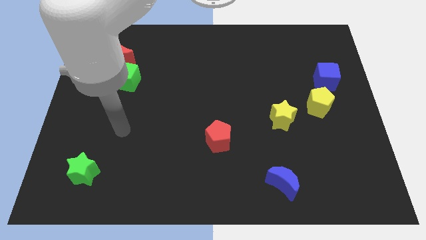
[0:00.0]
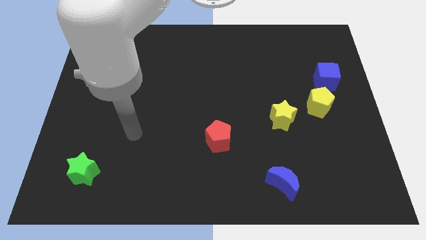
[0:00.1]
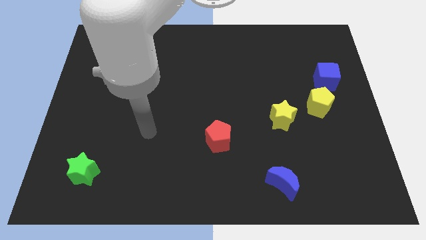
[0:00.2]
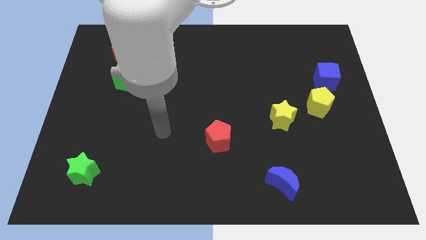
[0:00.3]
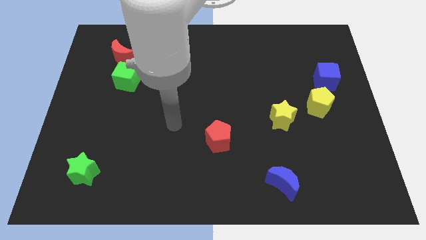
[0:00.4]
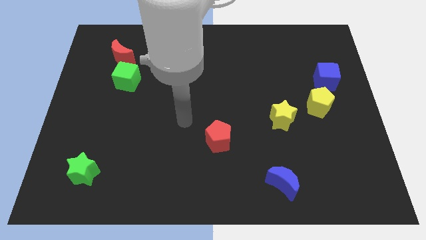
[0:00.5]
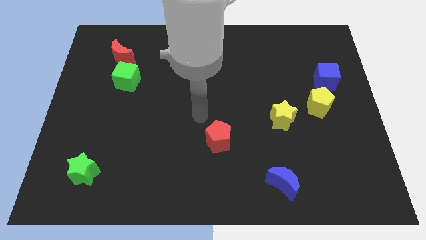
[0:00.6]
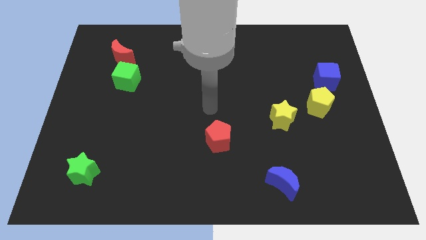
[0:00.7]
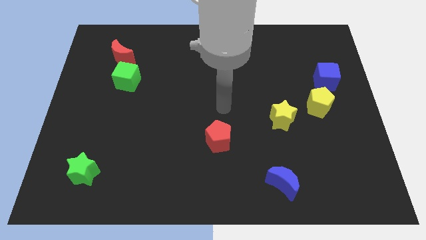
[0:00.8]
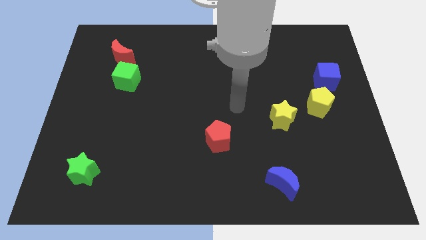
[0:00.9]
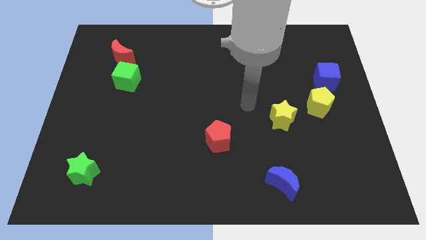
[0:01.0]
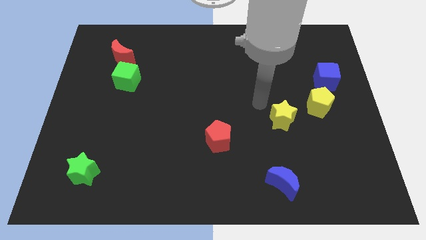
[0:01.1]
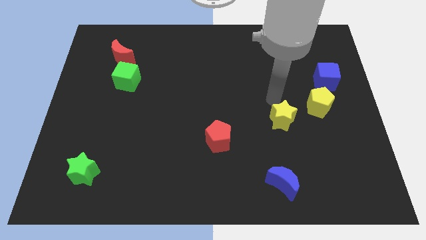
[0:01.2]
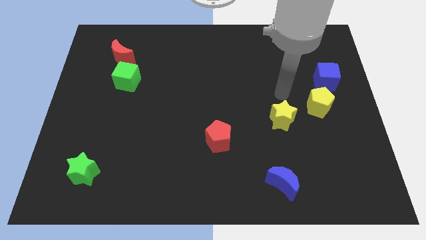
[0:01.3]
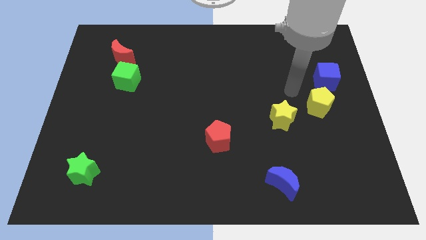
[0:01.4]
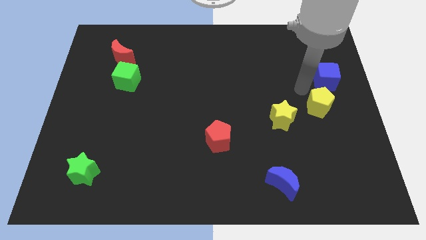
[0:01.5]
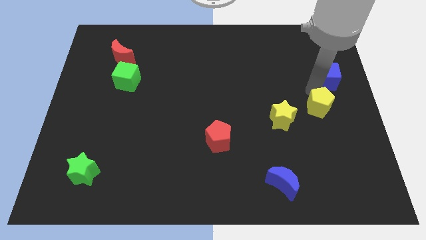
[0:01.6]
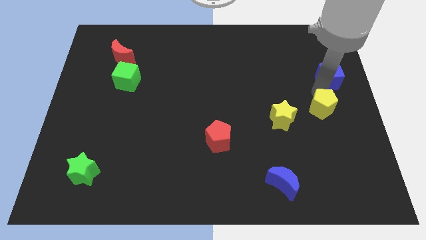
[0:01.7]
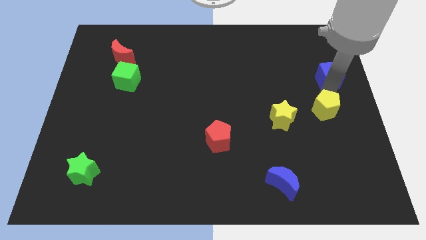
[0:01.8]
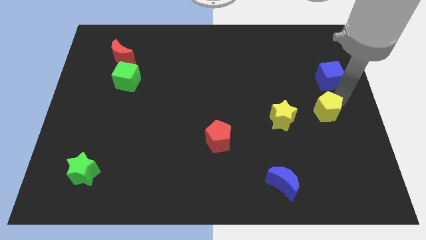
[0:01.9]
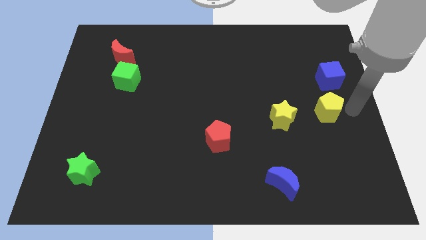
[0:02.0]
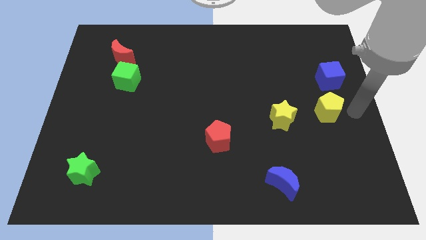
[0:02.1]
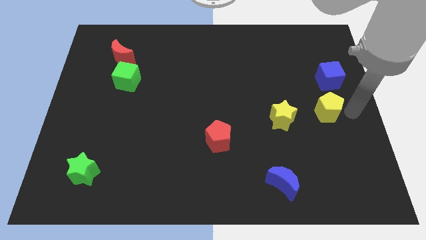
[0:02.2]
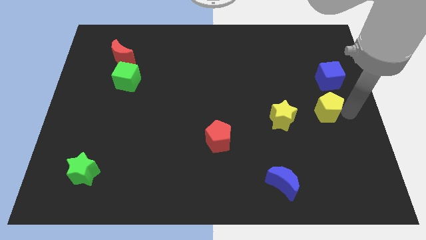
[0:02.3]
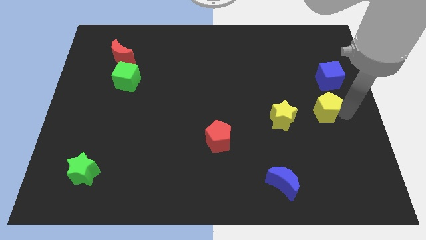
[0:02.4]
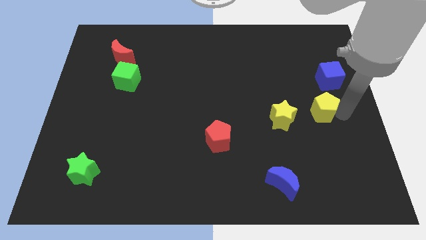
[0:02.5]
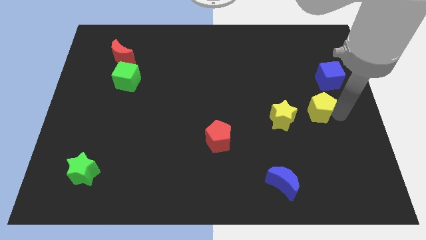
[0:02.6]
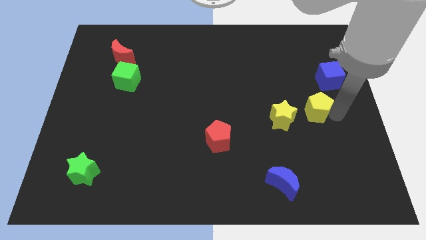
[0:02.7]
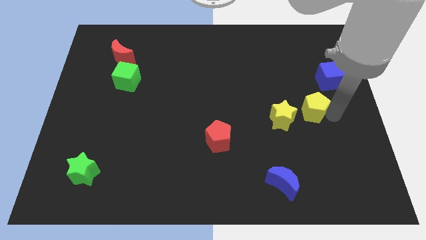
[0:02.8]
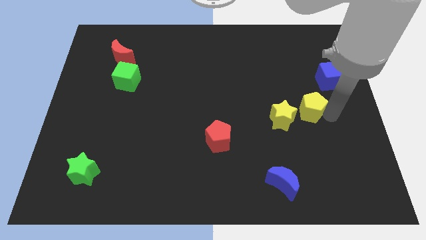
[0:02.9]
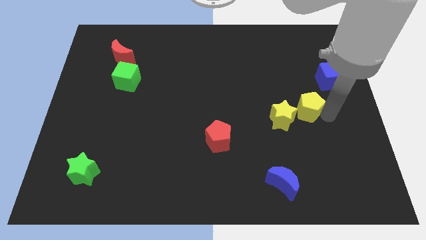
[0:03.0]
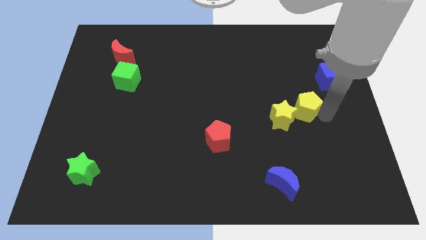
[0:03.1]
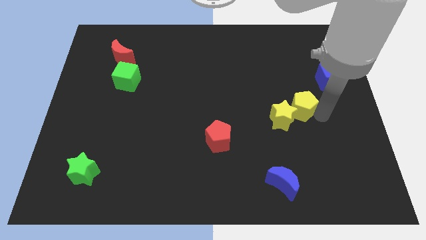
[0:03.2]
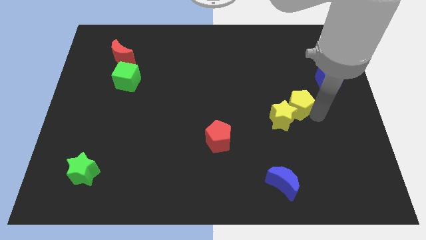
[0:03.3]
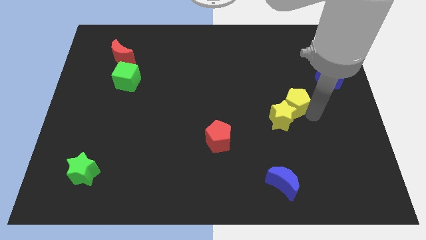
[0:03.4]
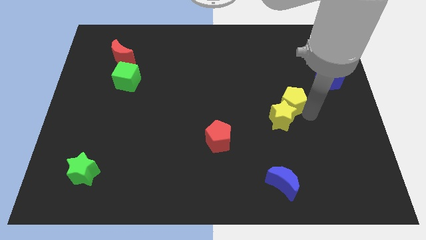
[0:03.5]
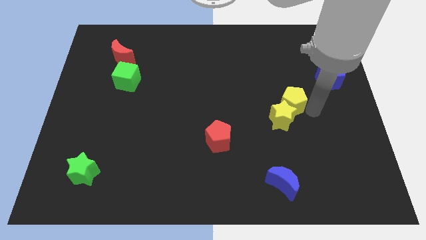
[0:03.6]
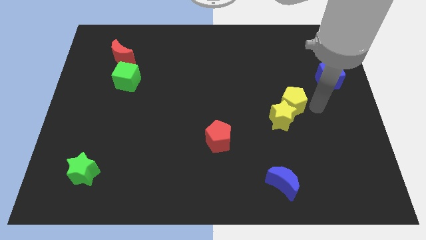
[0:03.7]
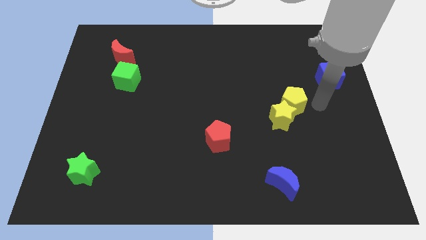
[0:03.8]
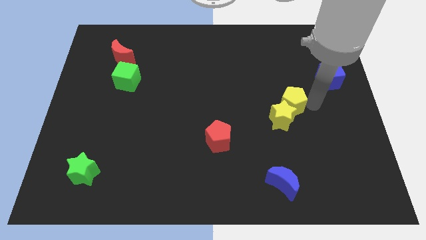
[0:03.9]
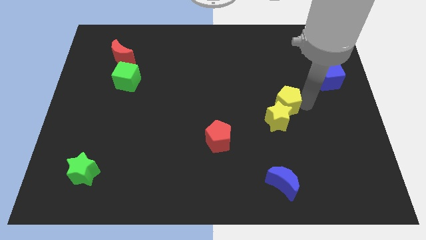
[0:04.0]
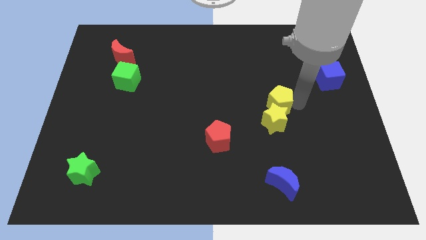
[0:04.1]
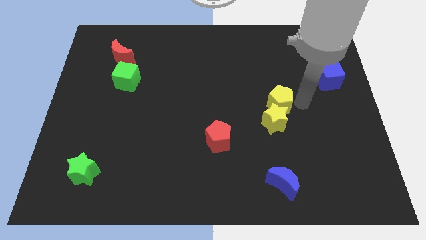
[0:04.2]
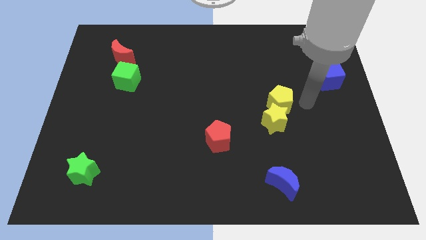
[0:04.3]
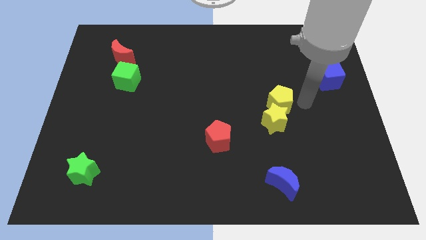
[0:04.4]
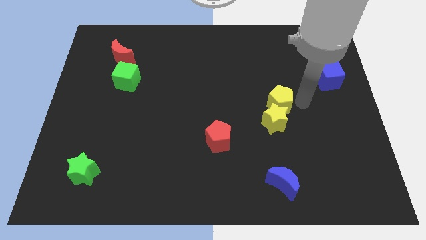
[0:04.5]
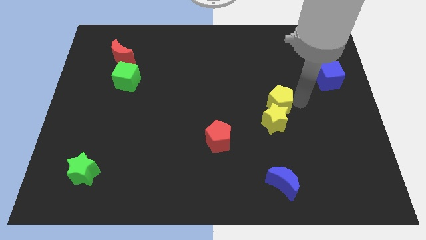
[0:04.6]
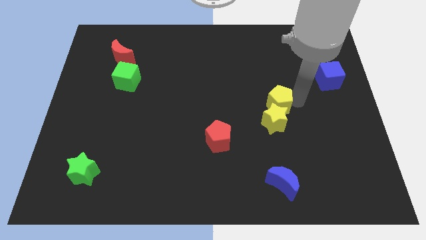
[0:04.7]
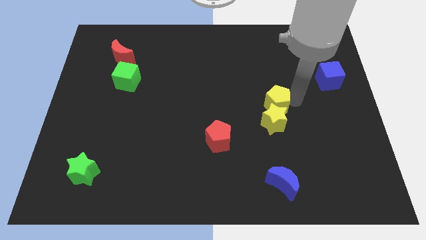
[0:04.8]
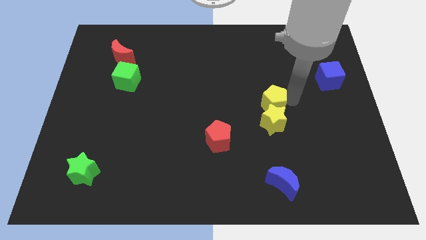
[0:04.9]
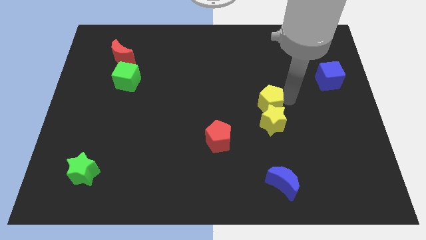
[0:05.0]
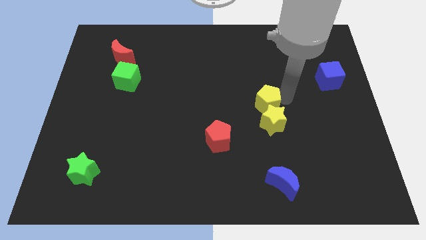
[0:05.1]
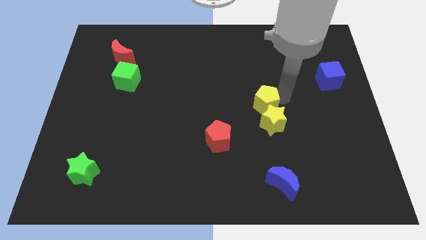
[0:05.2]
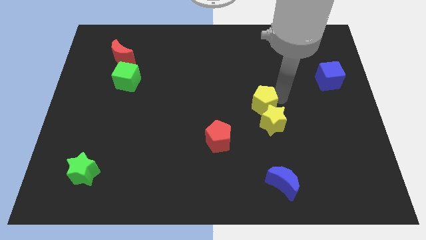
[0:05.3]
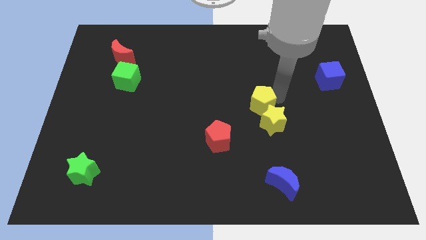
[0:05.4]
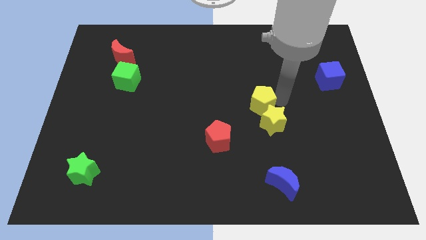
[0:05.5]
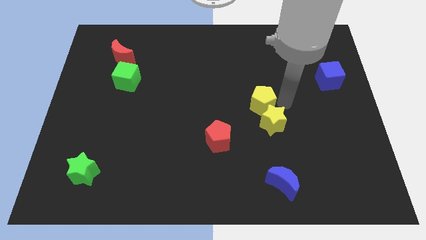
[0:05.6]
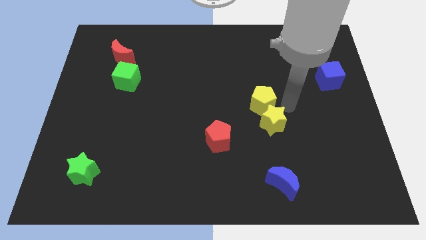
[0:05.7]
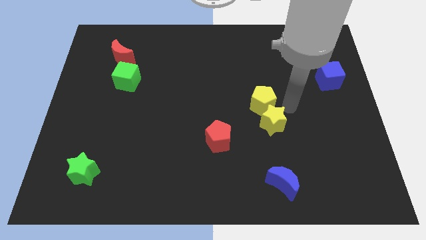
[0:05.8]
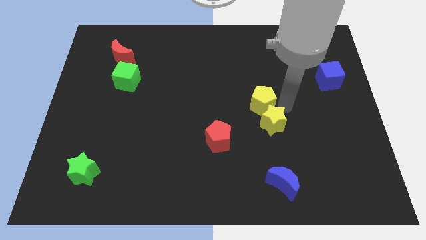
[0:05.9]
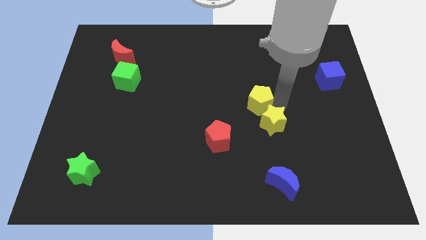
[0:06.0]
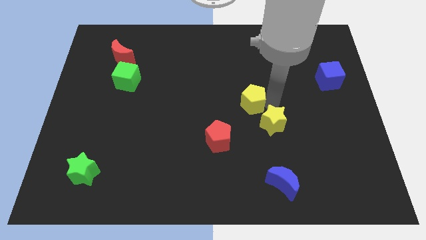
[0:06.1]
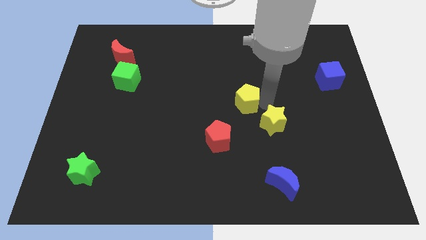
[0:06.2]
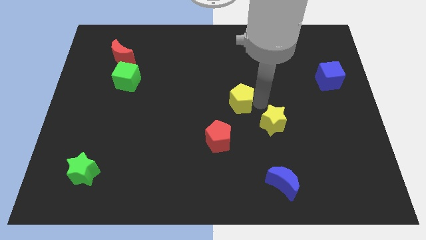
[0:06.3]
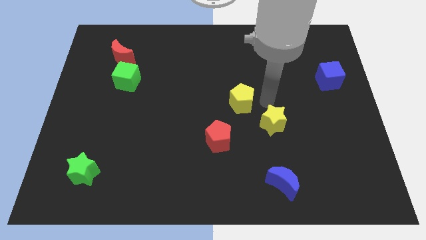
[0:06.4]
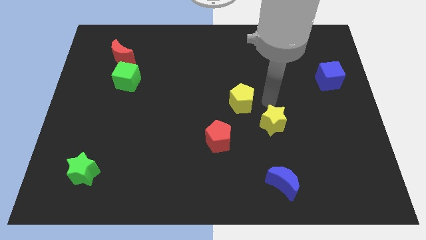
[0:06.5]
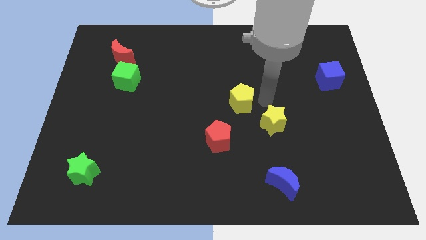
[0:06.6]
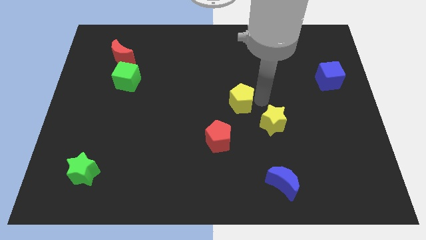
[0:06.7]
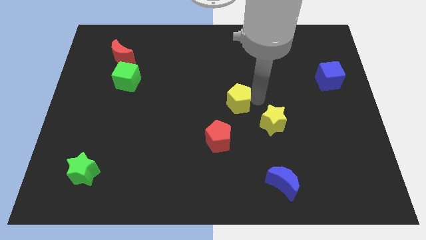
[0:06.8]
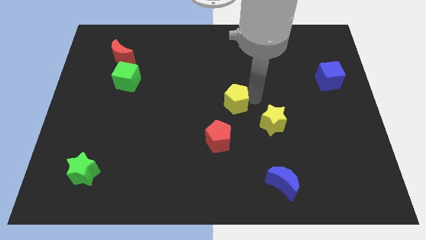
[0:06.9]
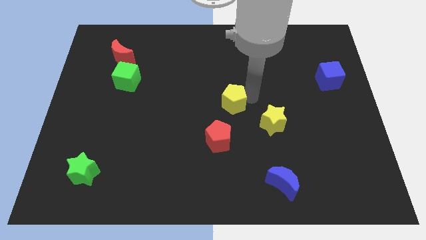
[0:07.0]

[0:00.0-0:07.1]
slide the yellow pentagon left

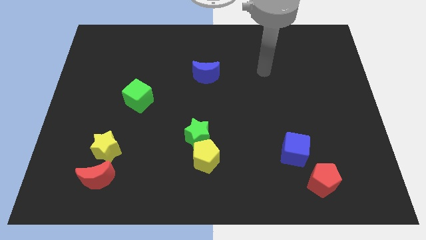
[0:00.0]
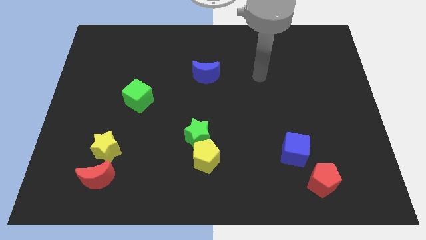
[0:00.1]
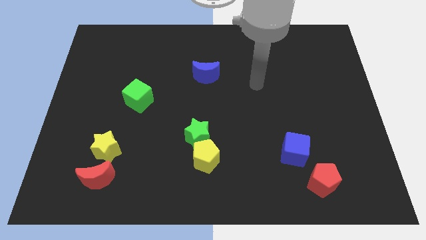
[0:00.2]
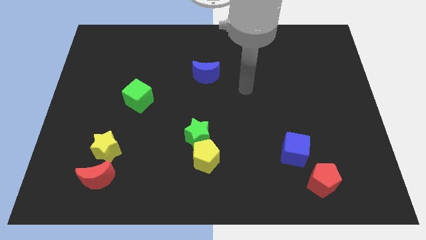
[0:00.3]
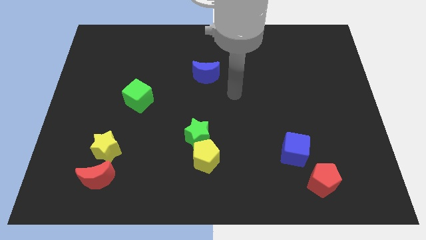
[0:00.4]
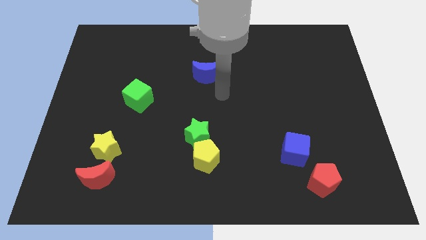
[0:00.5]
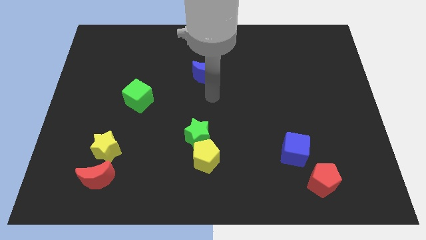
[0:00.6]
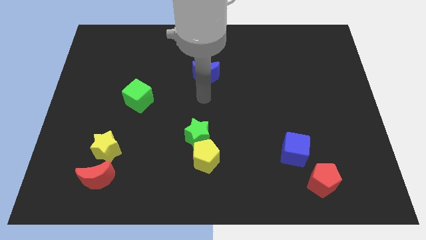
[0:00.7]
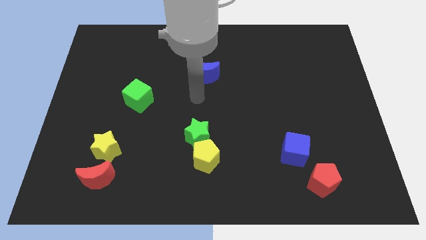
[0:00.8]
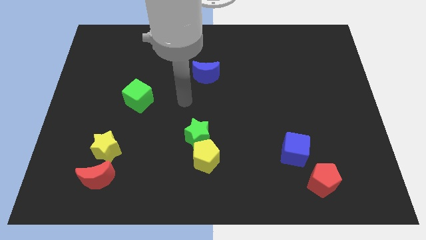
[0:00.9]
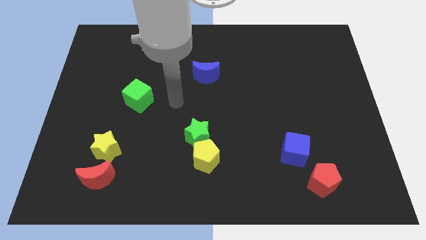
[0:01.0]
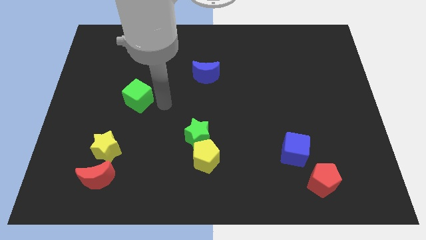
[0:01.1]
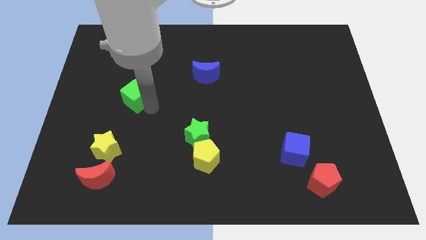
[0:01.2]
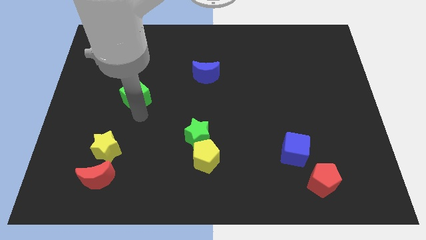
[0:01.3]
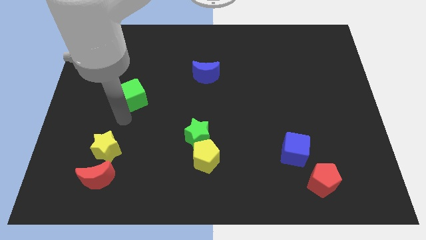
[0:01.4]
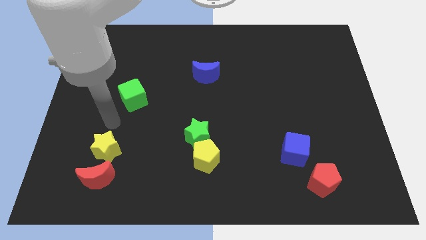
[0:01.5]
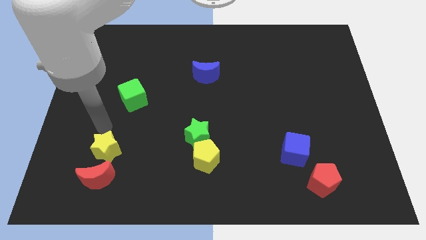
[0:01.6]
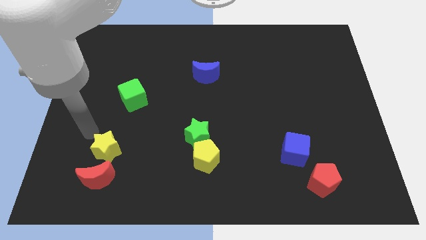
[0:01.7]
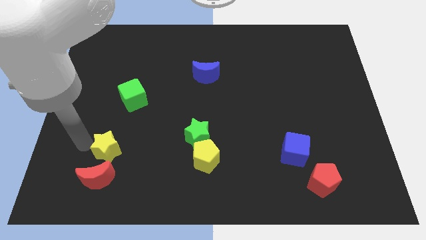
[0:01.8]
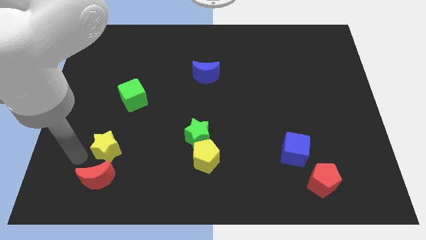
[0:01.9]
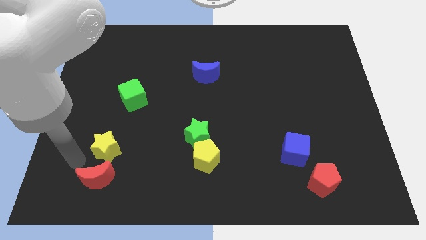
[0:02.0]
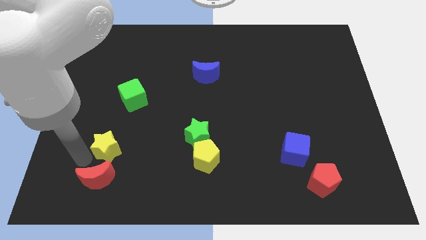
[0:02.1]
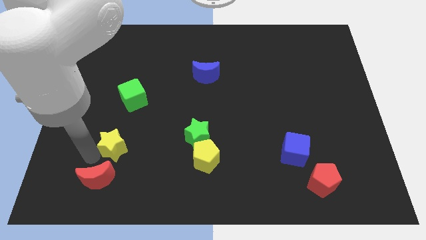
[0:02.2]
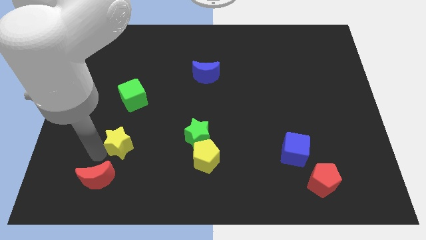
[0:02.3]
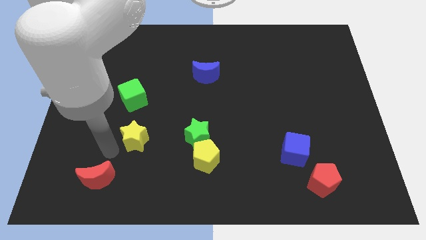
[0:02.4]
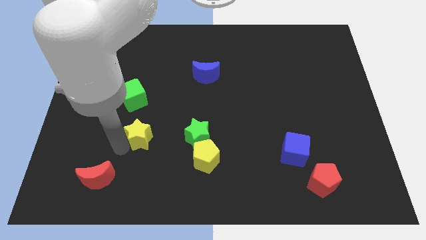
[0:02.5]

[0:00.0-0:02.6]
push the yellow star a little bit up and then to the right
